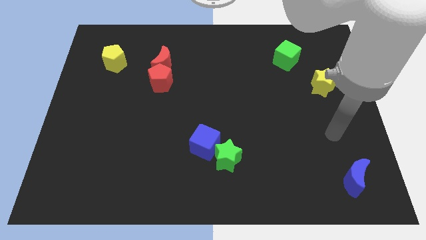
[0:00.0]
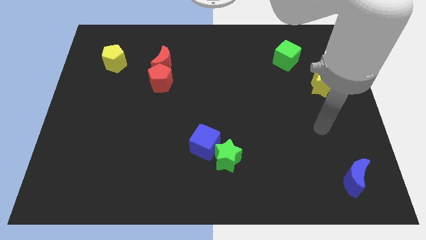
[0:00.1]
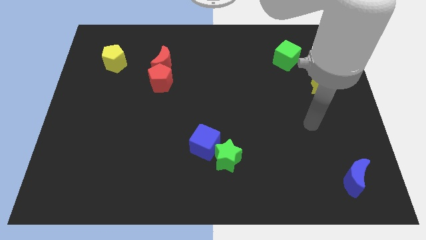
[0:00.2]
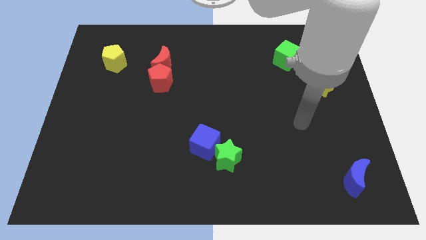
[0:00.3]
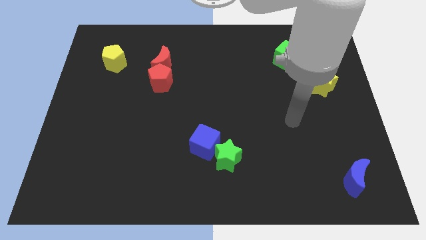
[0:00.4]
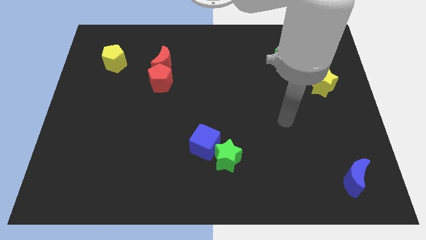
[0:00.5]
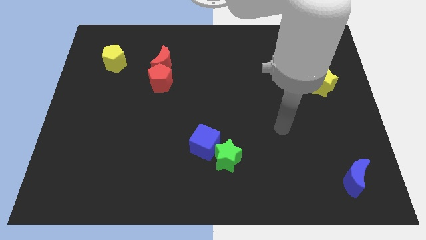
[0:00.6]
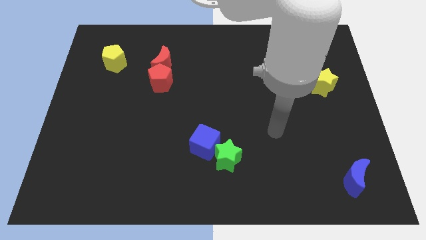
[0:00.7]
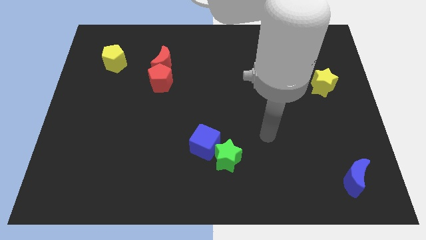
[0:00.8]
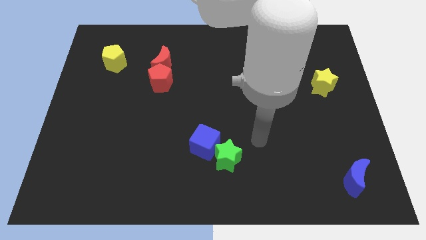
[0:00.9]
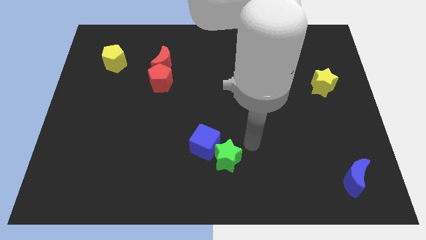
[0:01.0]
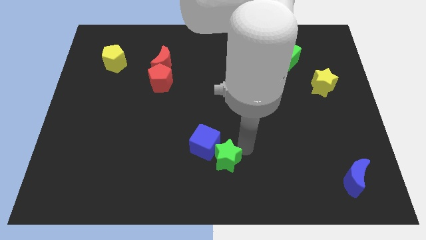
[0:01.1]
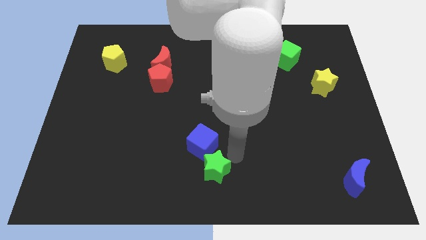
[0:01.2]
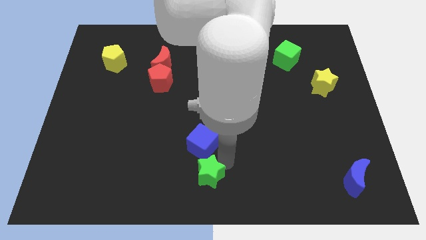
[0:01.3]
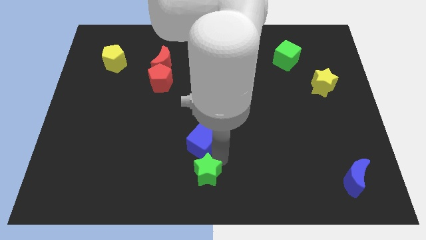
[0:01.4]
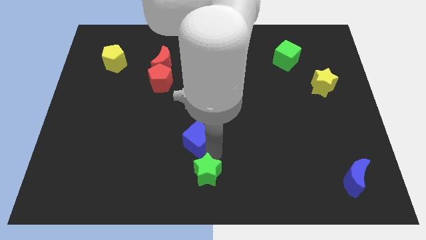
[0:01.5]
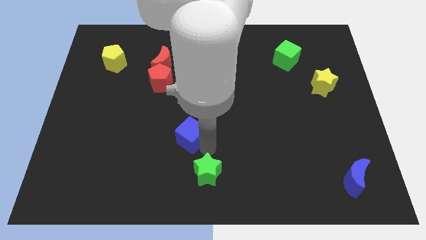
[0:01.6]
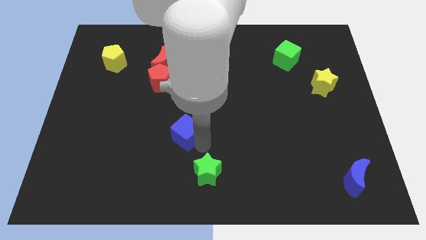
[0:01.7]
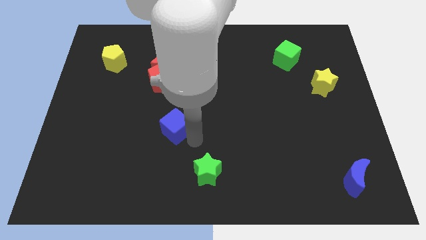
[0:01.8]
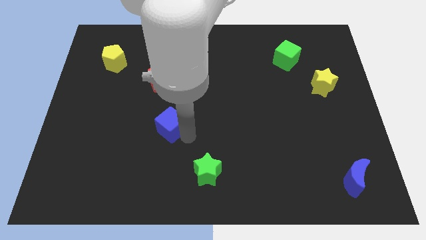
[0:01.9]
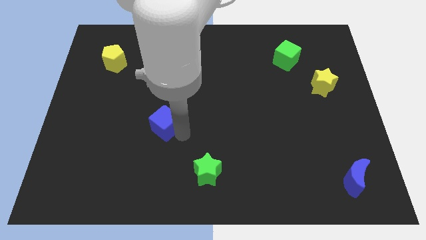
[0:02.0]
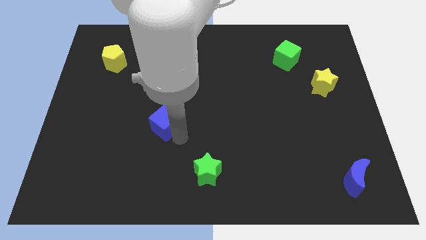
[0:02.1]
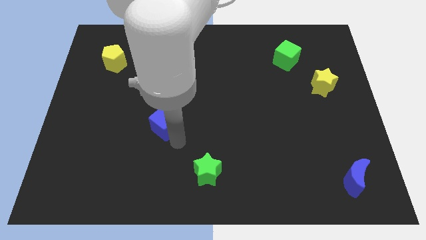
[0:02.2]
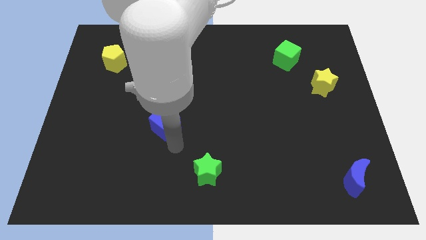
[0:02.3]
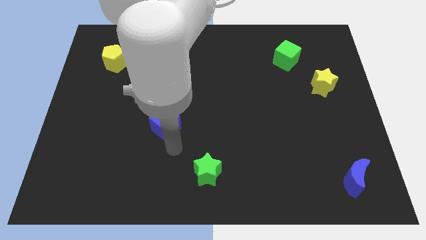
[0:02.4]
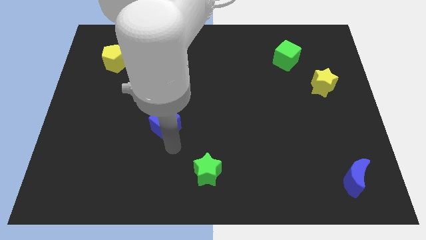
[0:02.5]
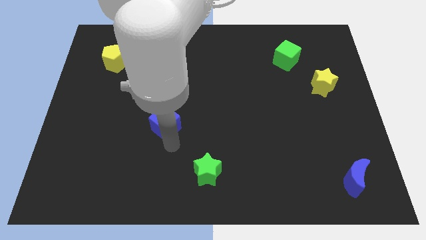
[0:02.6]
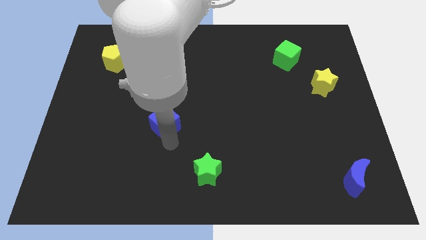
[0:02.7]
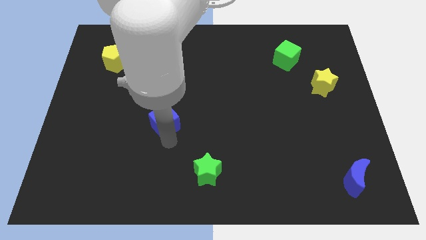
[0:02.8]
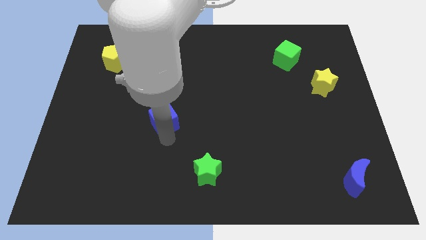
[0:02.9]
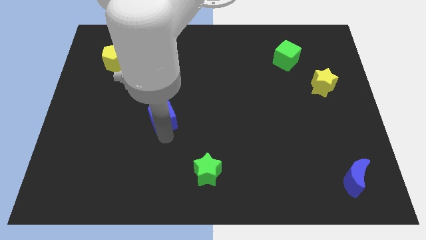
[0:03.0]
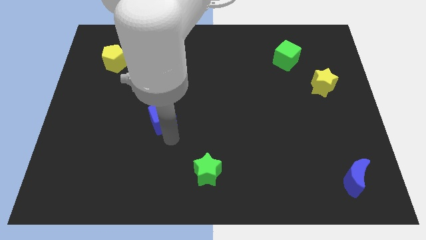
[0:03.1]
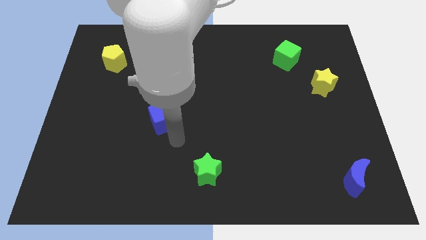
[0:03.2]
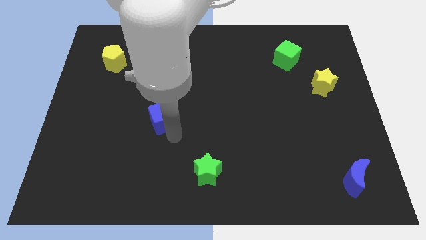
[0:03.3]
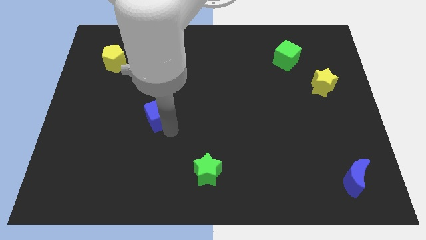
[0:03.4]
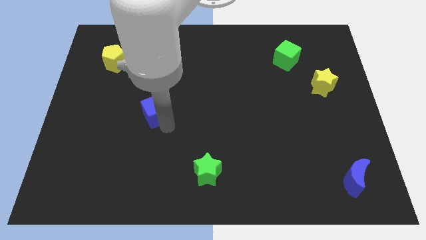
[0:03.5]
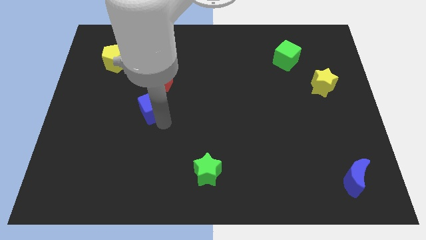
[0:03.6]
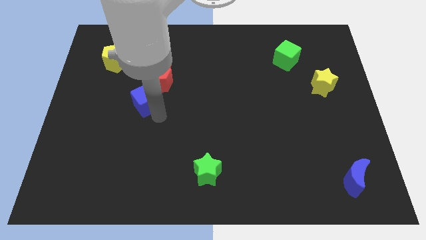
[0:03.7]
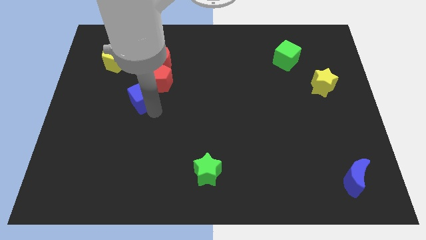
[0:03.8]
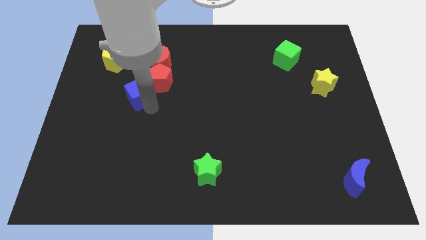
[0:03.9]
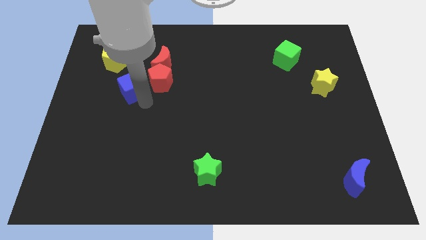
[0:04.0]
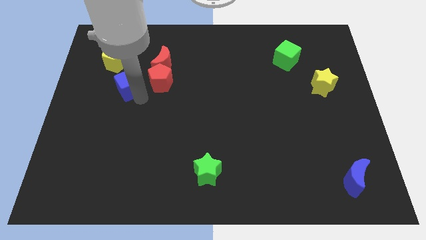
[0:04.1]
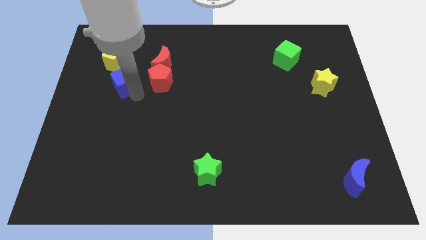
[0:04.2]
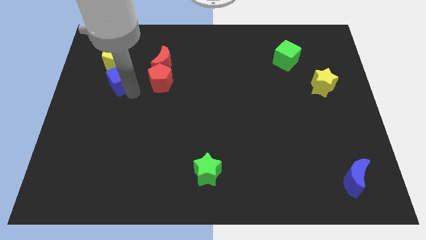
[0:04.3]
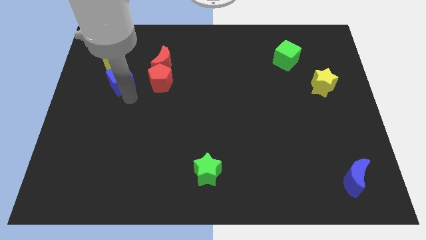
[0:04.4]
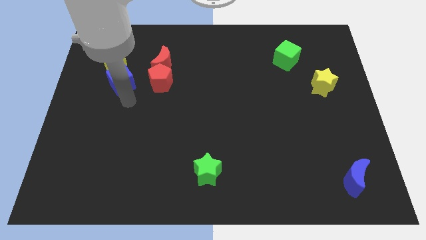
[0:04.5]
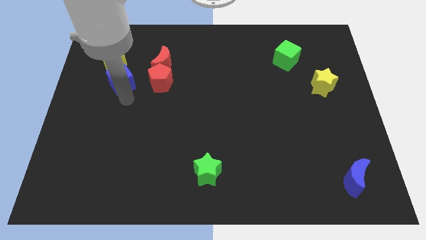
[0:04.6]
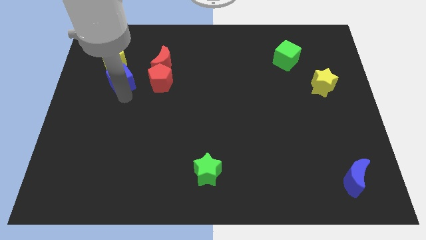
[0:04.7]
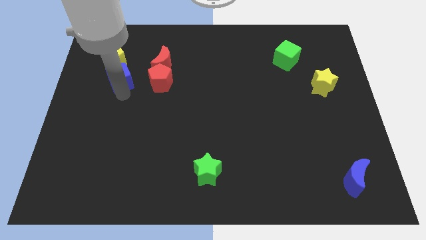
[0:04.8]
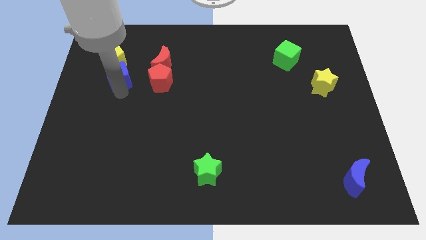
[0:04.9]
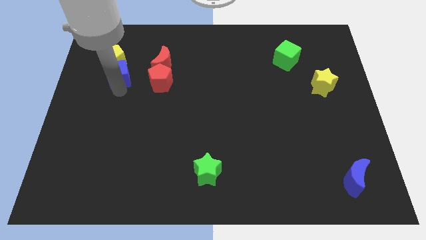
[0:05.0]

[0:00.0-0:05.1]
slide the blue cube next to the yellow pentagon

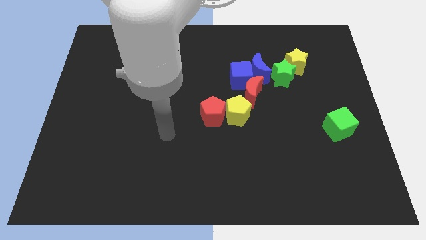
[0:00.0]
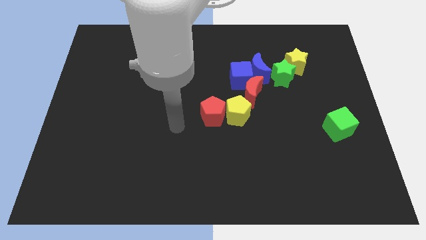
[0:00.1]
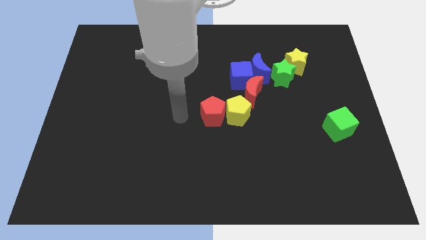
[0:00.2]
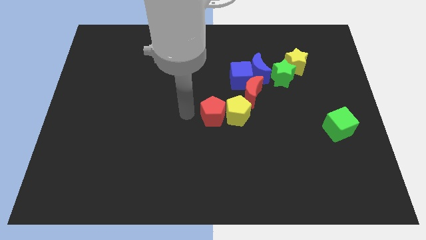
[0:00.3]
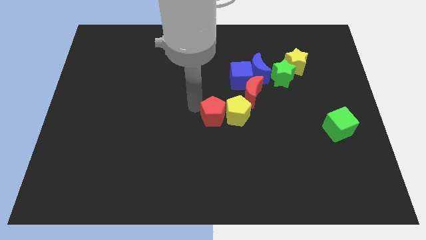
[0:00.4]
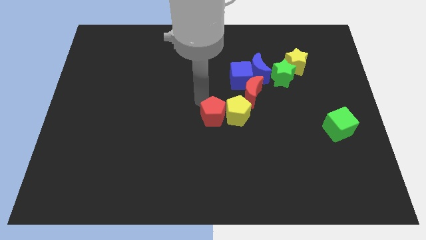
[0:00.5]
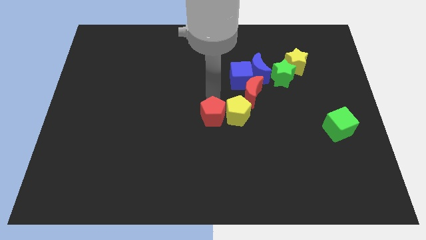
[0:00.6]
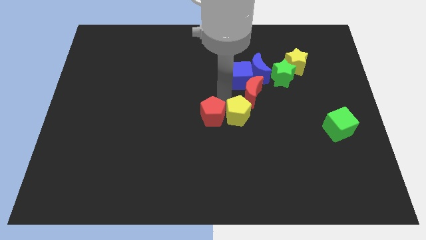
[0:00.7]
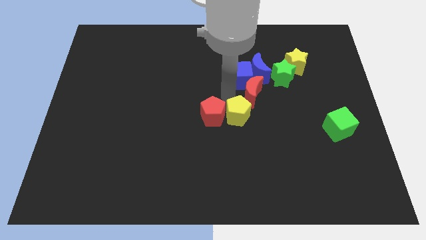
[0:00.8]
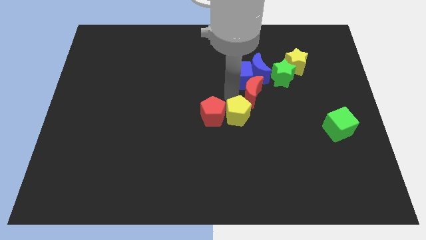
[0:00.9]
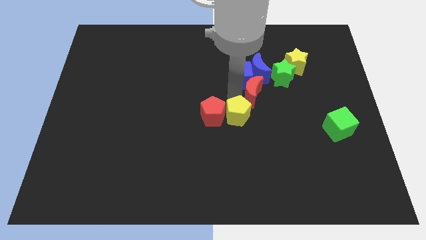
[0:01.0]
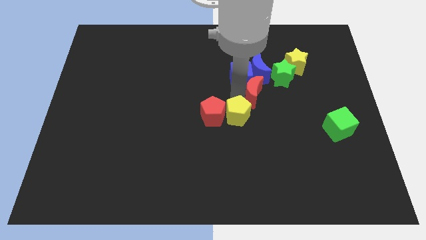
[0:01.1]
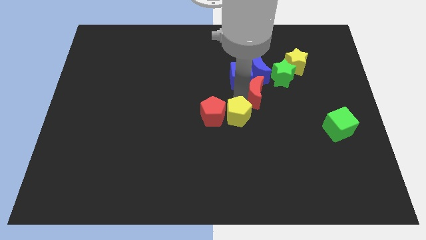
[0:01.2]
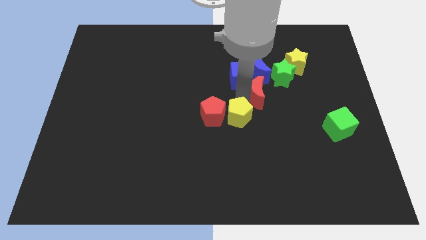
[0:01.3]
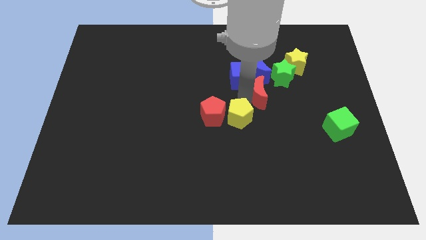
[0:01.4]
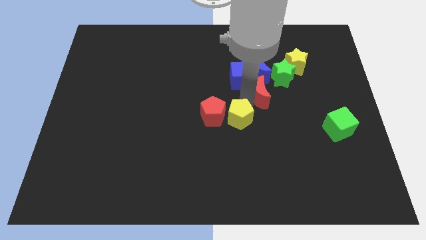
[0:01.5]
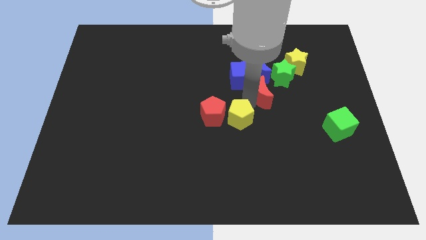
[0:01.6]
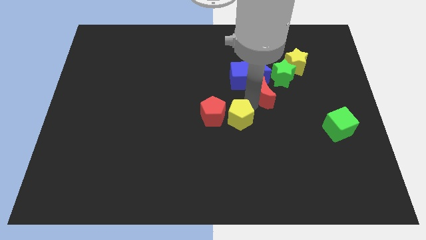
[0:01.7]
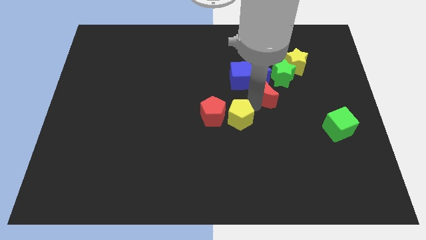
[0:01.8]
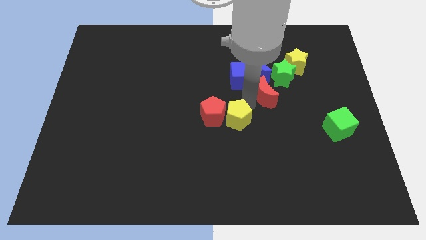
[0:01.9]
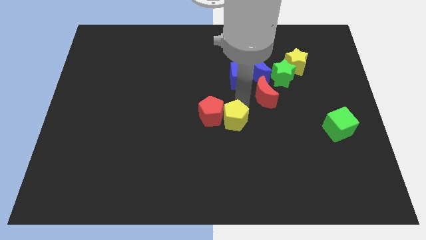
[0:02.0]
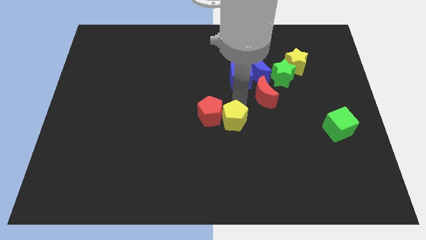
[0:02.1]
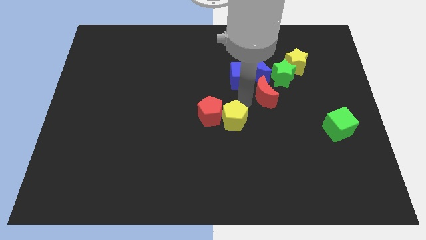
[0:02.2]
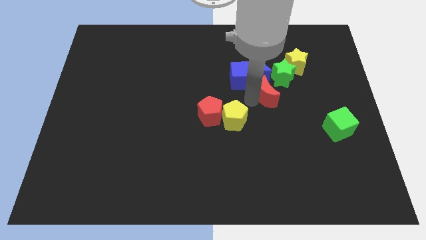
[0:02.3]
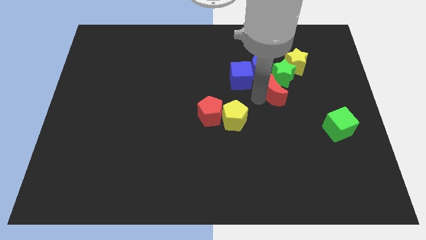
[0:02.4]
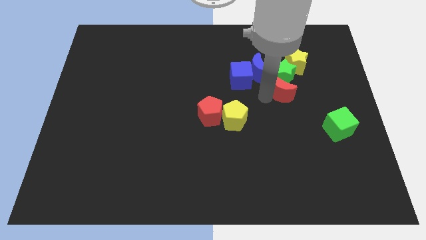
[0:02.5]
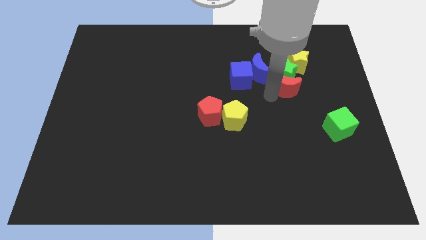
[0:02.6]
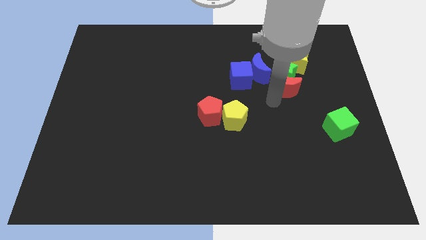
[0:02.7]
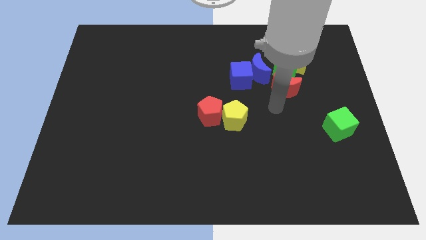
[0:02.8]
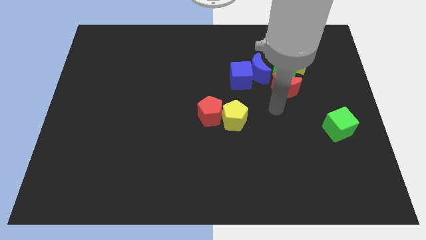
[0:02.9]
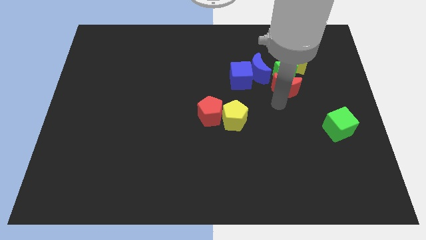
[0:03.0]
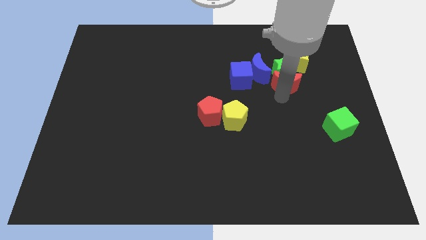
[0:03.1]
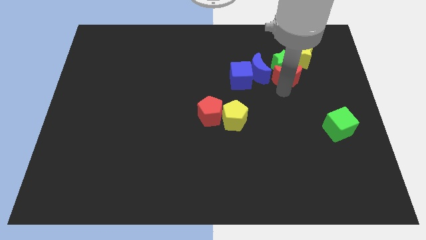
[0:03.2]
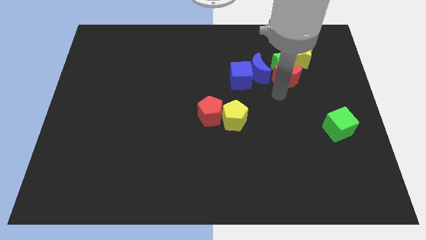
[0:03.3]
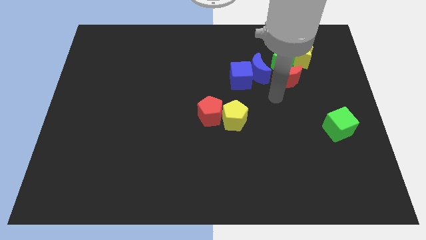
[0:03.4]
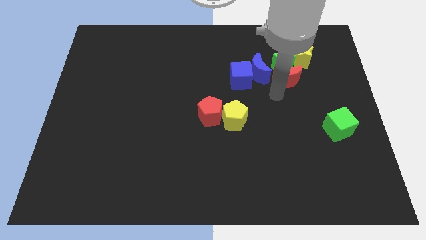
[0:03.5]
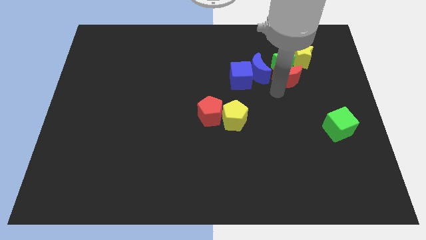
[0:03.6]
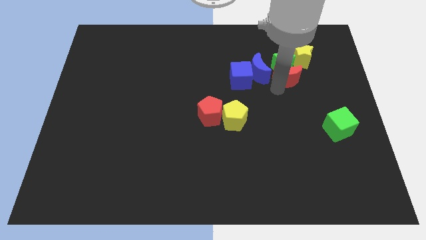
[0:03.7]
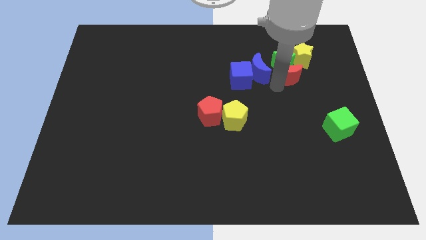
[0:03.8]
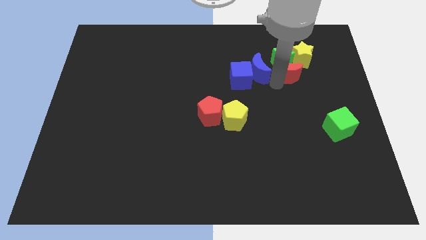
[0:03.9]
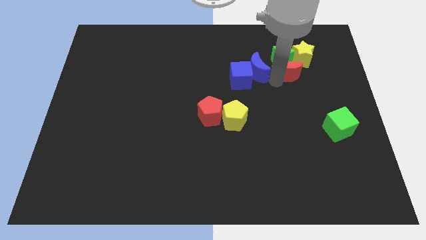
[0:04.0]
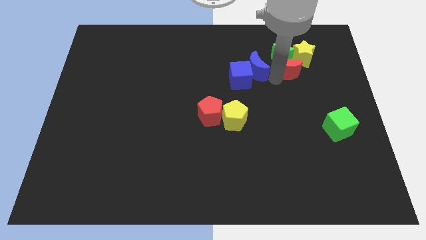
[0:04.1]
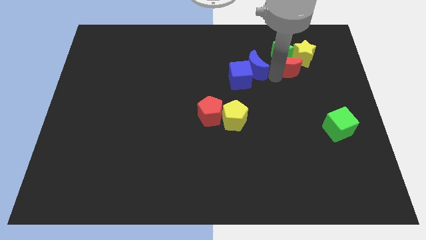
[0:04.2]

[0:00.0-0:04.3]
put the red moon next to the yellow star
